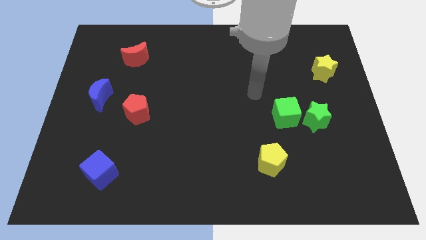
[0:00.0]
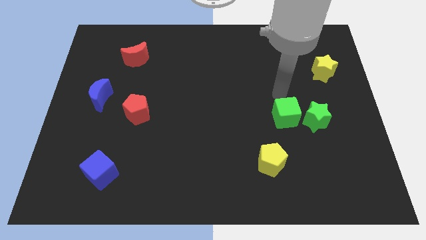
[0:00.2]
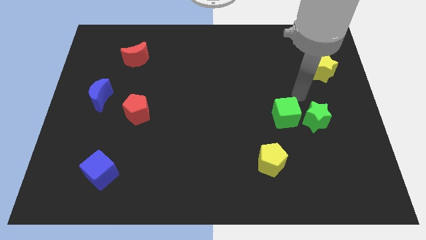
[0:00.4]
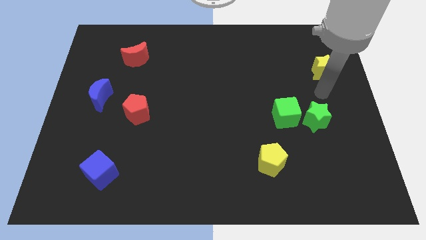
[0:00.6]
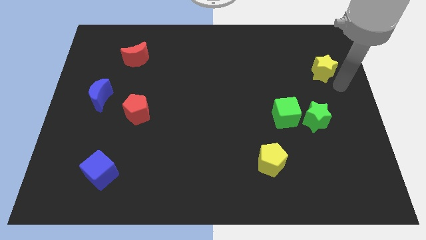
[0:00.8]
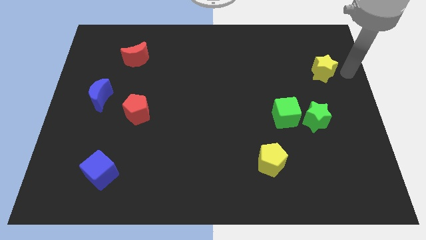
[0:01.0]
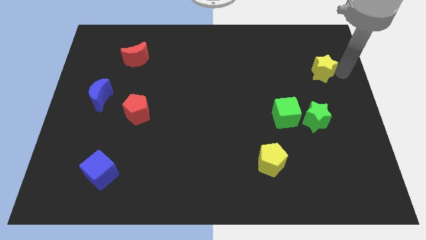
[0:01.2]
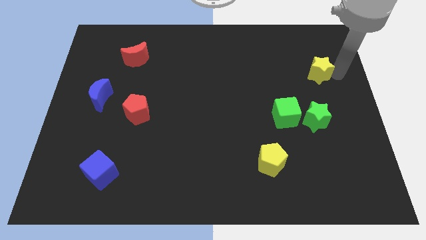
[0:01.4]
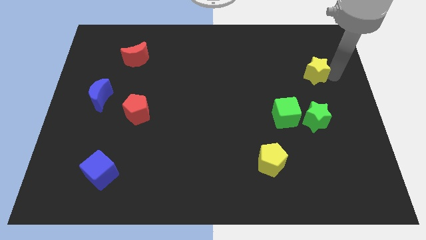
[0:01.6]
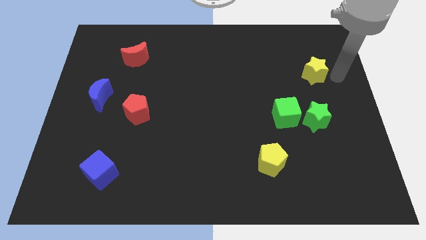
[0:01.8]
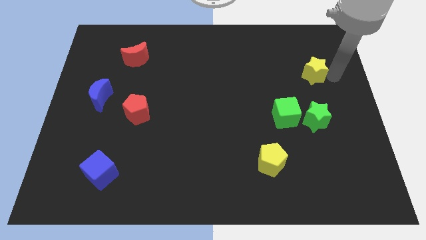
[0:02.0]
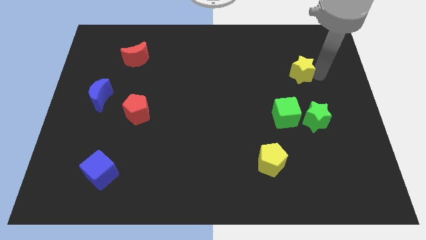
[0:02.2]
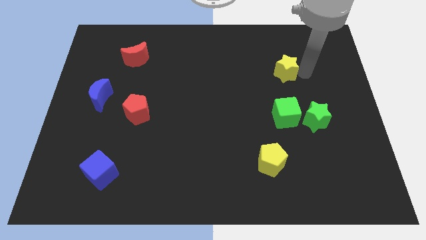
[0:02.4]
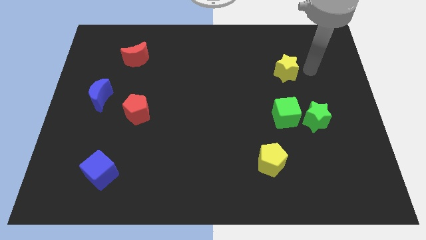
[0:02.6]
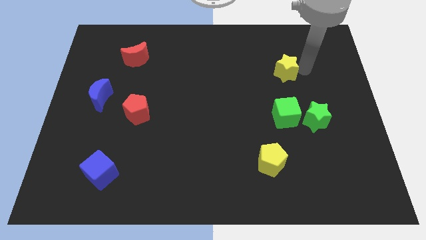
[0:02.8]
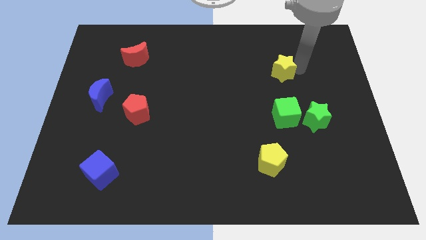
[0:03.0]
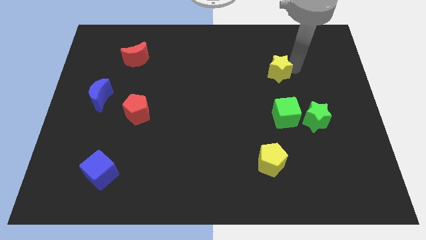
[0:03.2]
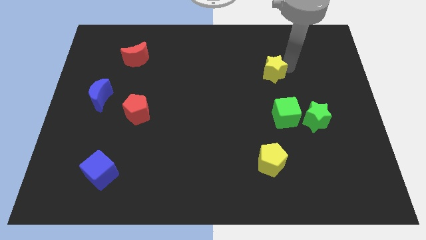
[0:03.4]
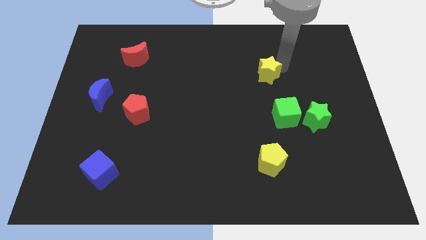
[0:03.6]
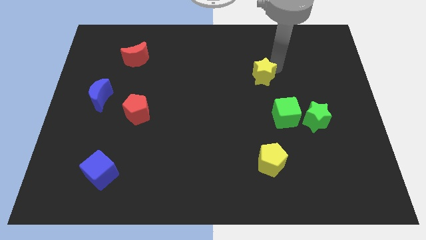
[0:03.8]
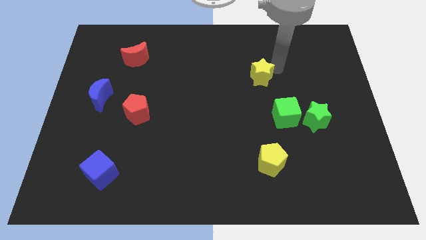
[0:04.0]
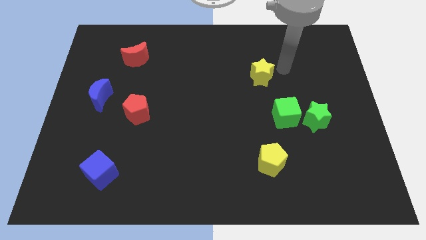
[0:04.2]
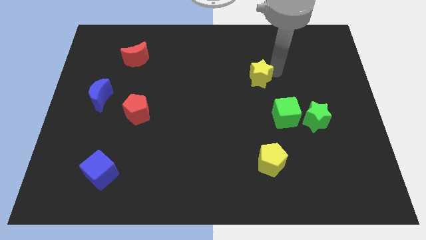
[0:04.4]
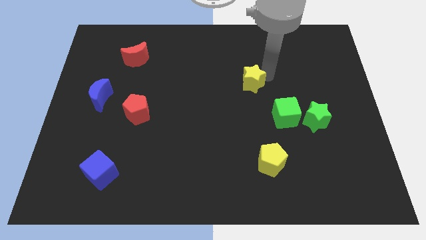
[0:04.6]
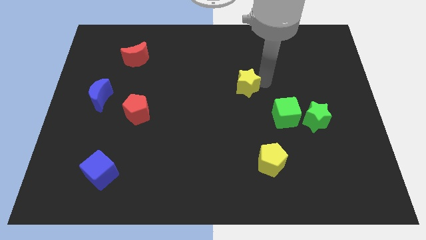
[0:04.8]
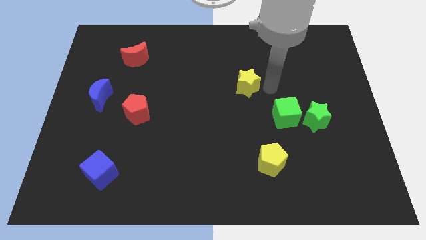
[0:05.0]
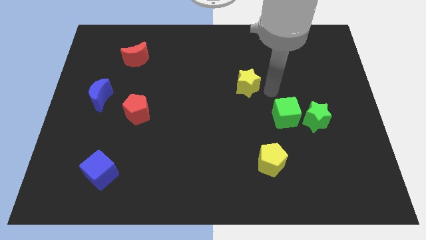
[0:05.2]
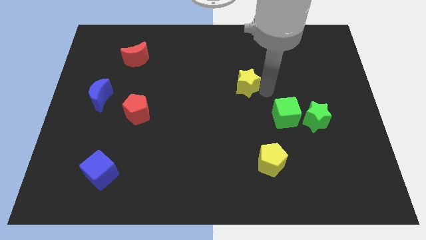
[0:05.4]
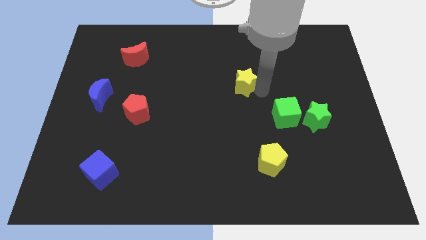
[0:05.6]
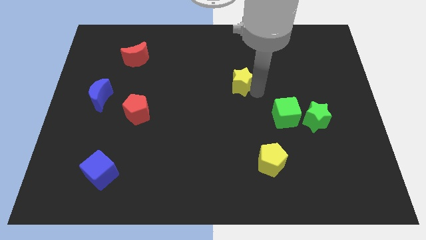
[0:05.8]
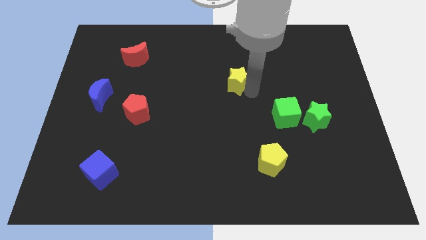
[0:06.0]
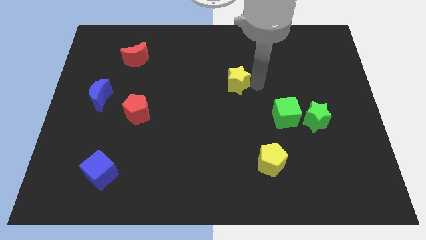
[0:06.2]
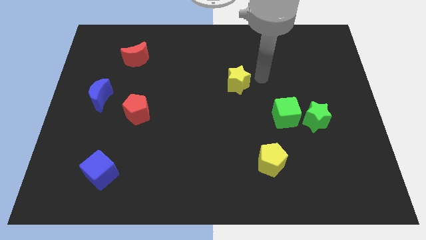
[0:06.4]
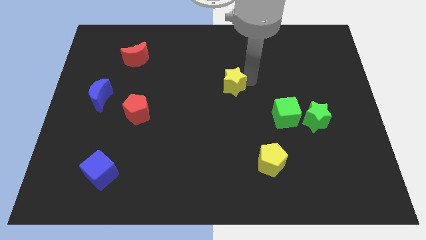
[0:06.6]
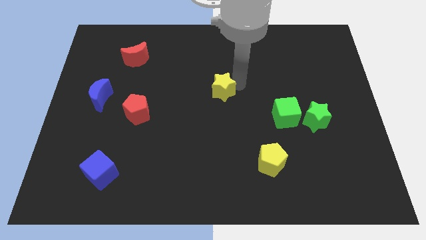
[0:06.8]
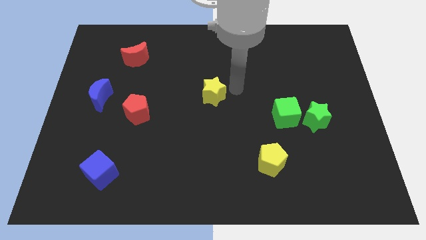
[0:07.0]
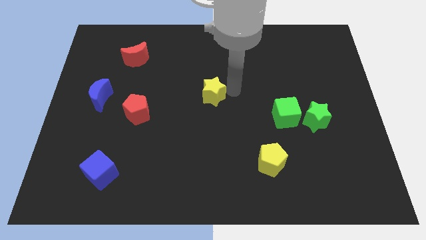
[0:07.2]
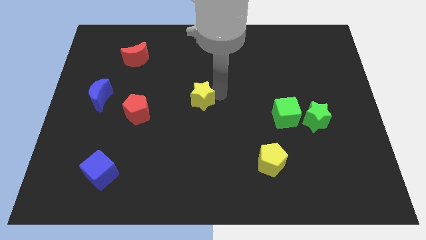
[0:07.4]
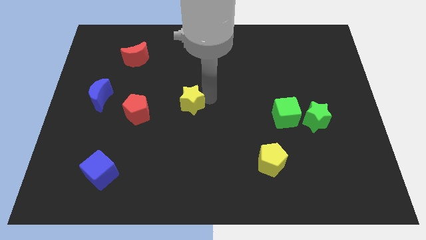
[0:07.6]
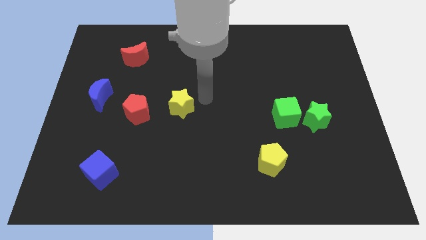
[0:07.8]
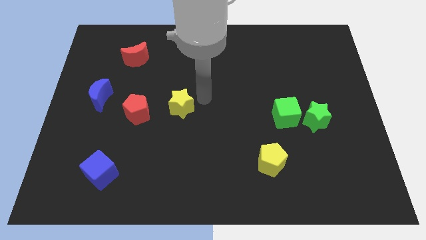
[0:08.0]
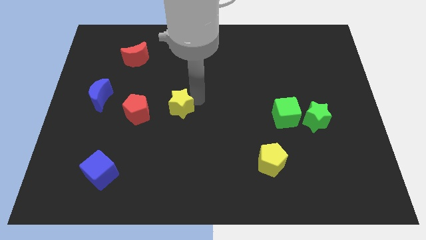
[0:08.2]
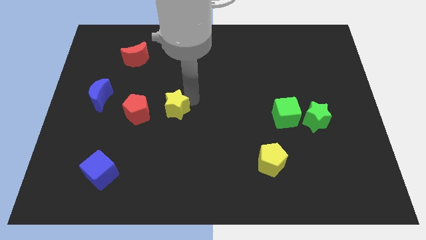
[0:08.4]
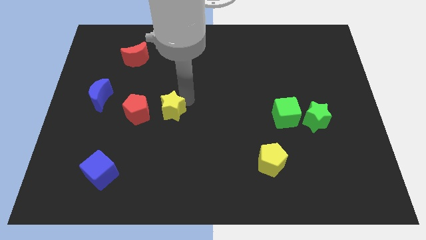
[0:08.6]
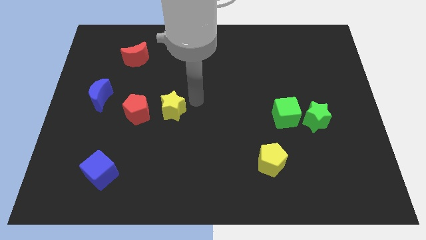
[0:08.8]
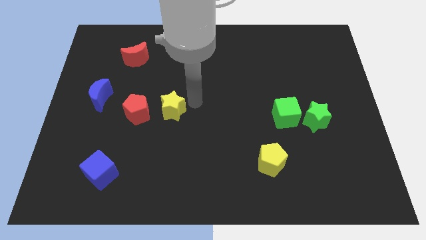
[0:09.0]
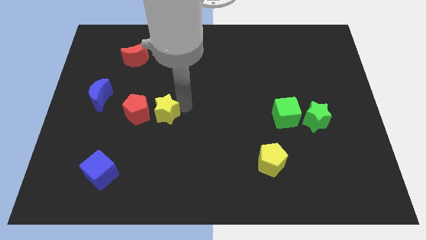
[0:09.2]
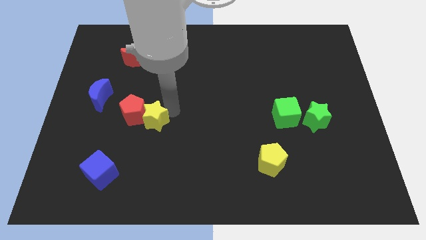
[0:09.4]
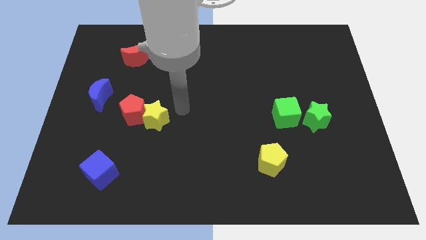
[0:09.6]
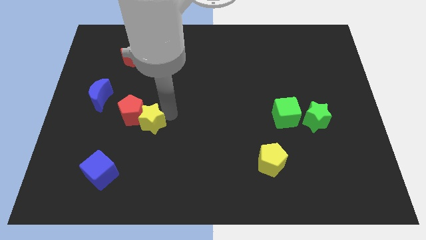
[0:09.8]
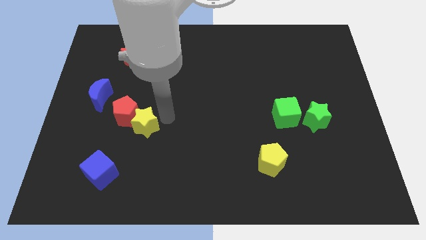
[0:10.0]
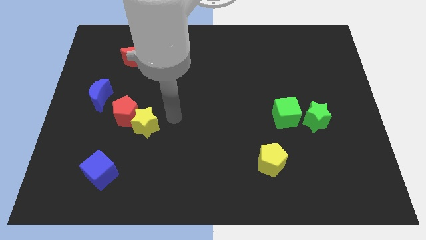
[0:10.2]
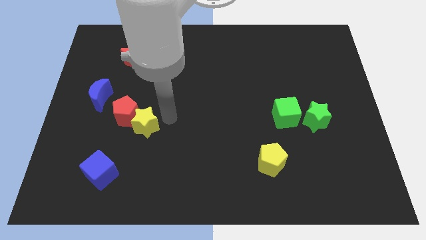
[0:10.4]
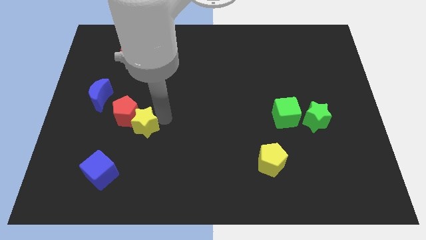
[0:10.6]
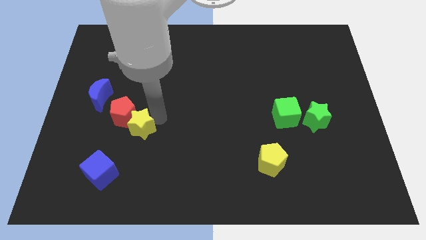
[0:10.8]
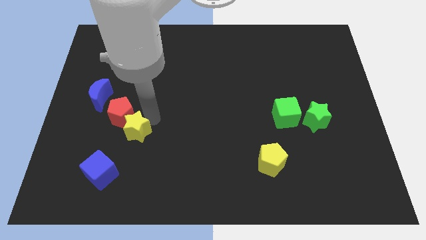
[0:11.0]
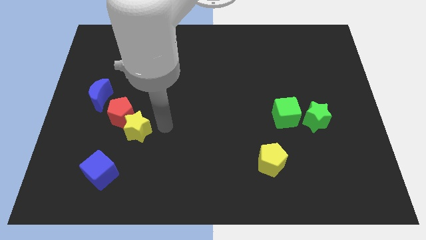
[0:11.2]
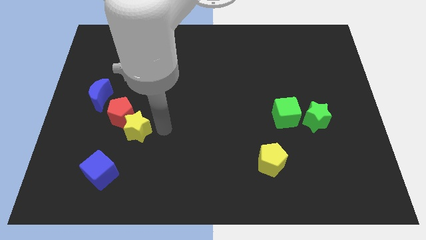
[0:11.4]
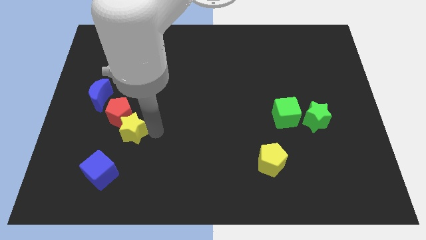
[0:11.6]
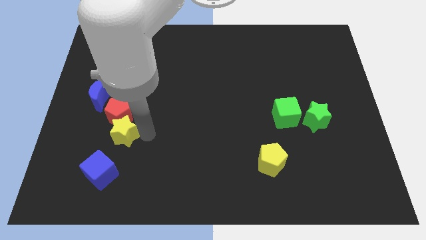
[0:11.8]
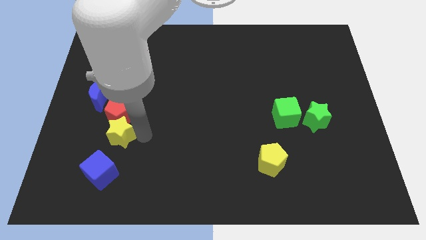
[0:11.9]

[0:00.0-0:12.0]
slide the yellow star to the bottom left of the red pentagon

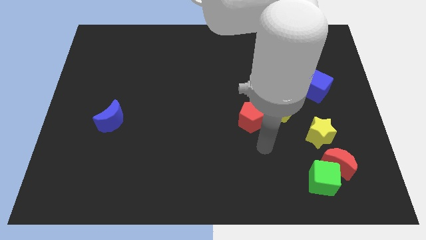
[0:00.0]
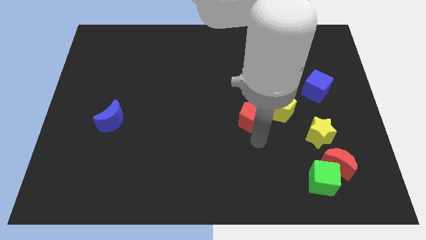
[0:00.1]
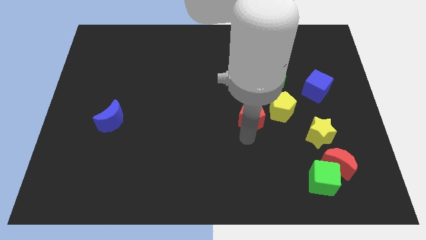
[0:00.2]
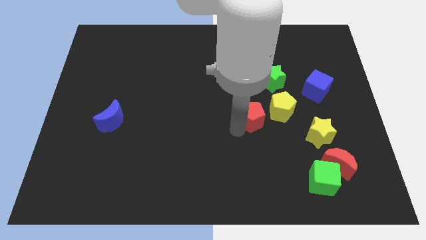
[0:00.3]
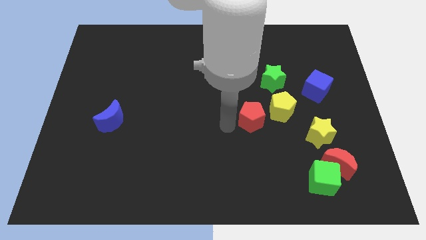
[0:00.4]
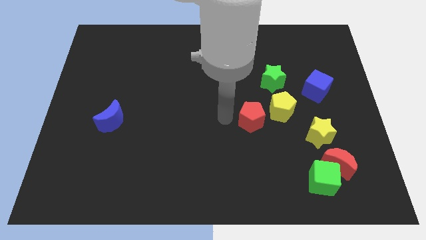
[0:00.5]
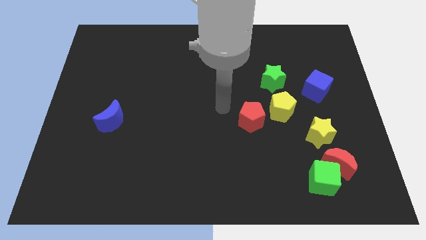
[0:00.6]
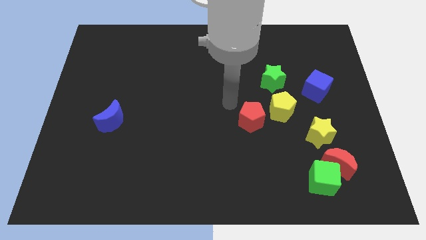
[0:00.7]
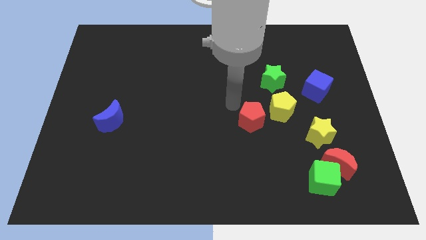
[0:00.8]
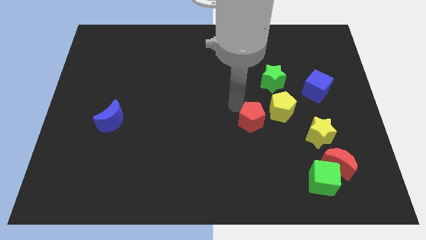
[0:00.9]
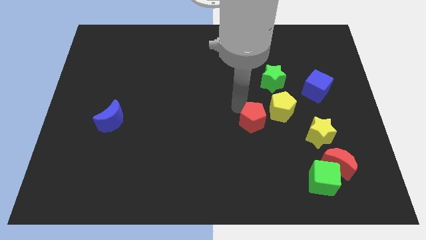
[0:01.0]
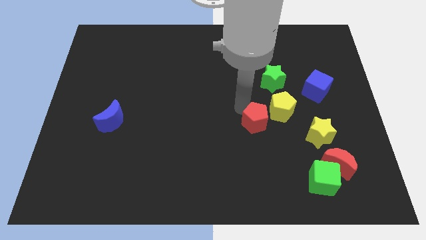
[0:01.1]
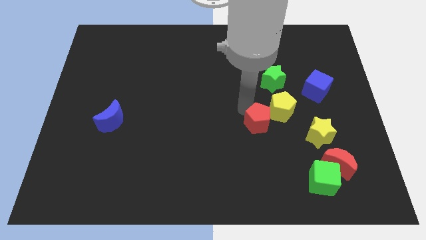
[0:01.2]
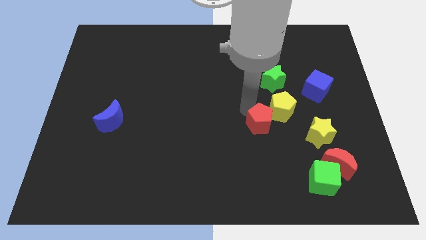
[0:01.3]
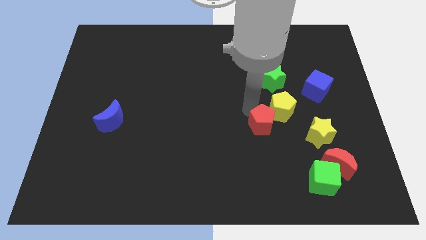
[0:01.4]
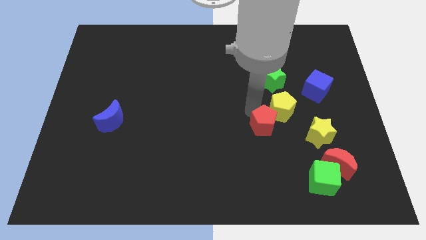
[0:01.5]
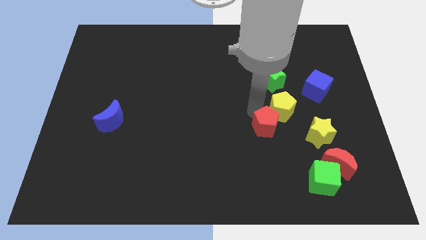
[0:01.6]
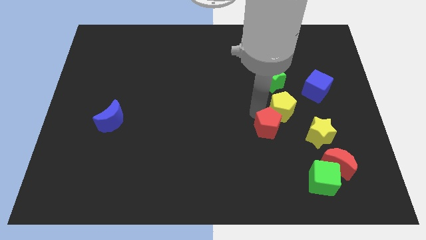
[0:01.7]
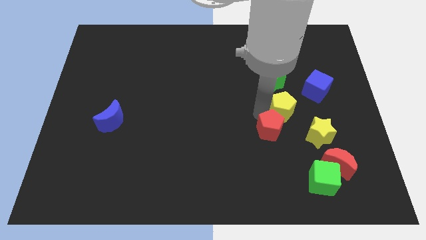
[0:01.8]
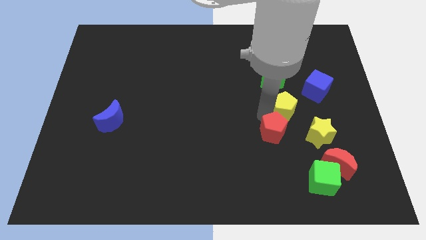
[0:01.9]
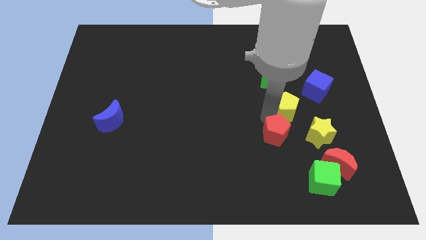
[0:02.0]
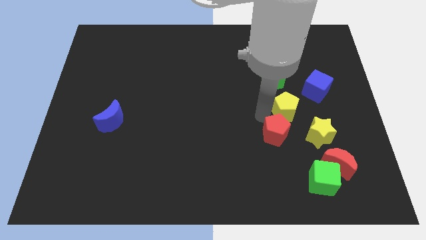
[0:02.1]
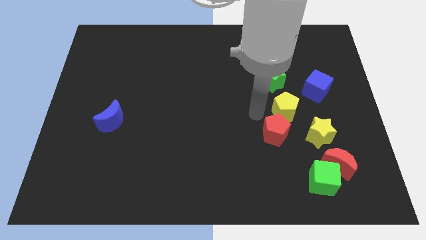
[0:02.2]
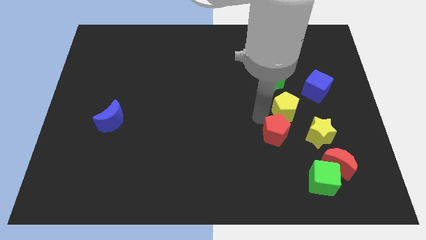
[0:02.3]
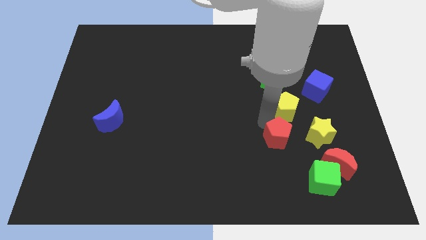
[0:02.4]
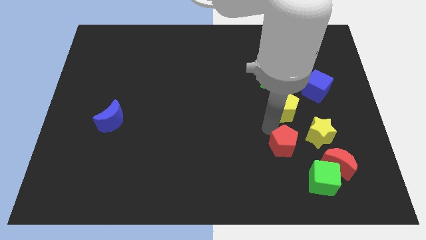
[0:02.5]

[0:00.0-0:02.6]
move the red pentagon to the bottom left side of the yellow star
